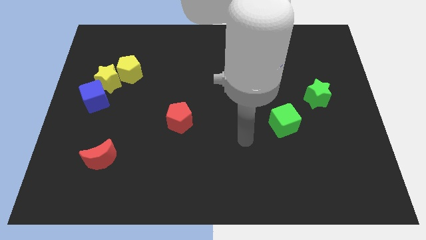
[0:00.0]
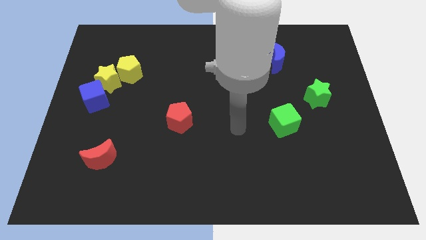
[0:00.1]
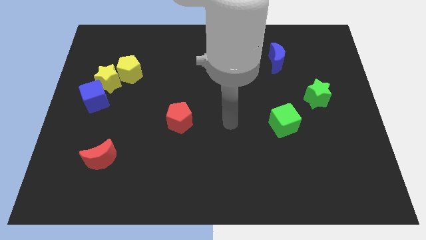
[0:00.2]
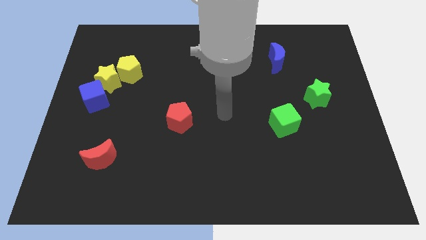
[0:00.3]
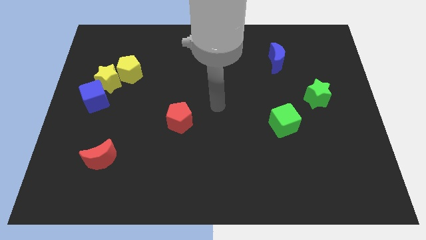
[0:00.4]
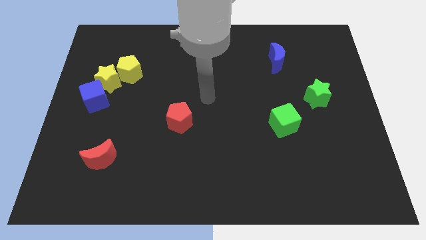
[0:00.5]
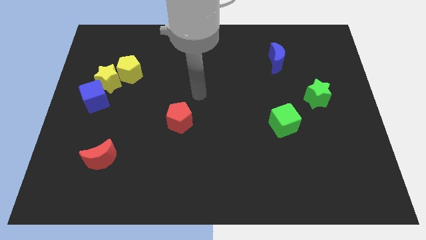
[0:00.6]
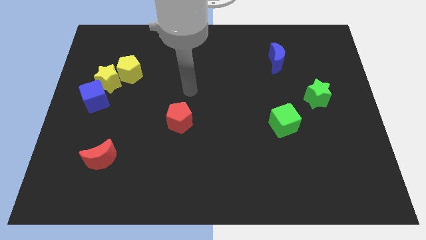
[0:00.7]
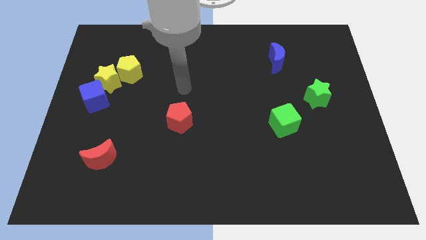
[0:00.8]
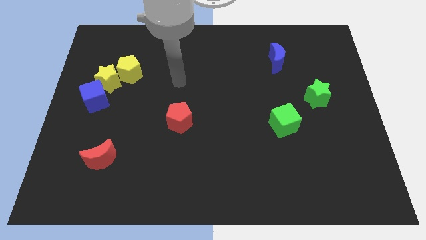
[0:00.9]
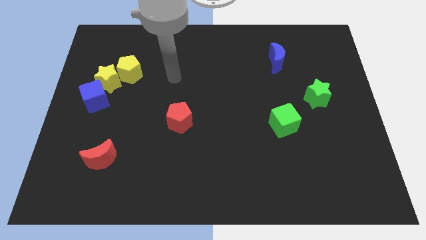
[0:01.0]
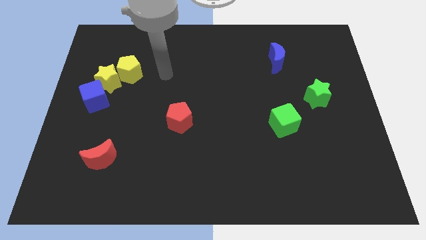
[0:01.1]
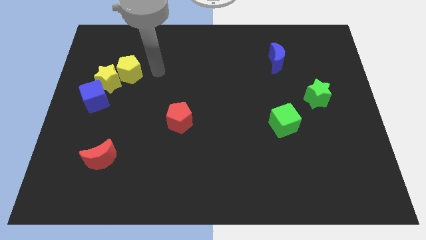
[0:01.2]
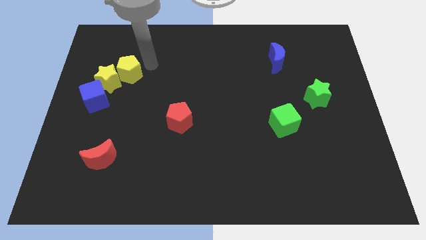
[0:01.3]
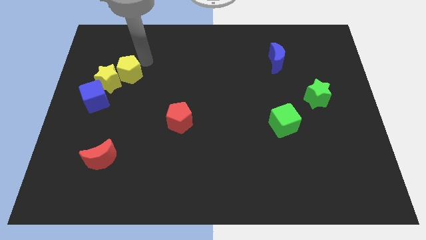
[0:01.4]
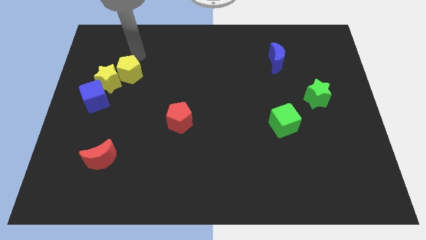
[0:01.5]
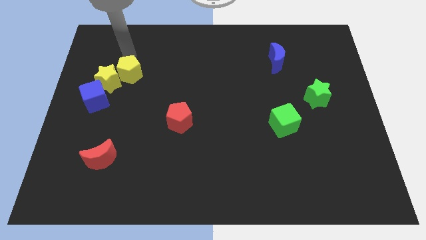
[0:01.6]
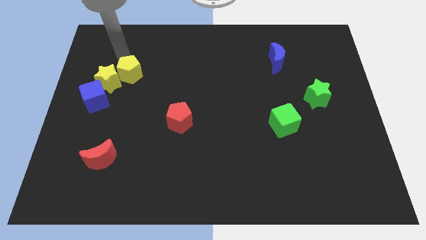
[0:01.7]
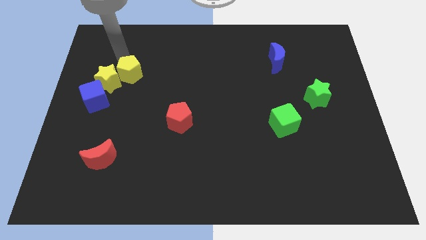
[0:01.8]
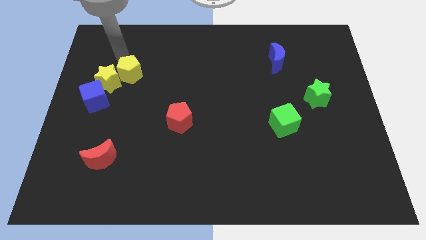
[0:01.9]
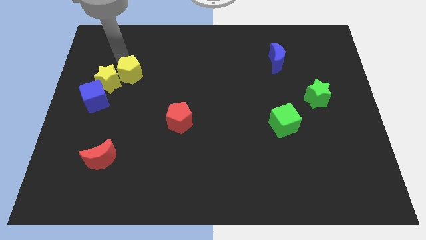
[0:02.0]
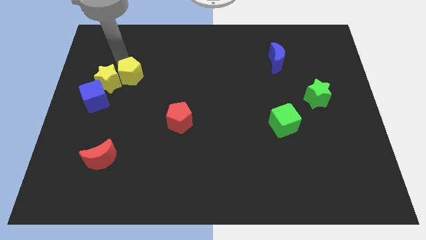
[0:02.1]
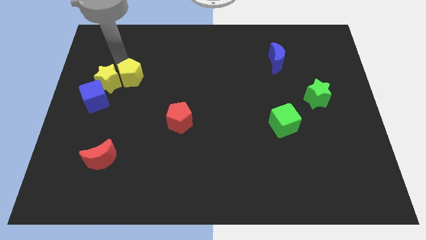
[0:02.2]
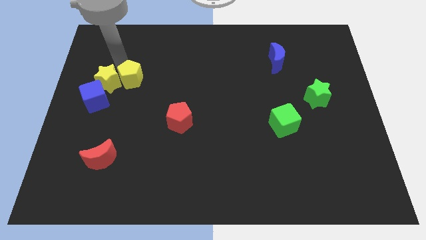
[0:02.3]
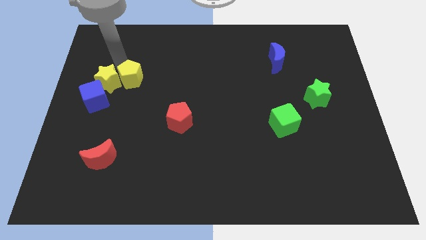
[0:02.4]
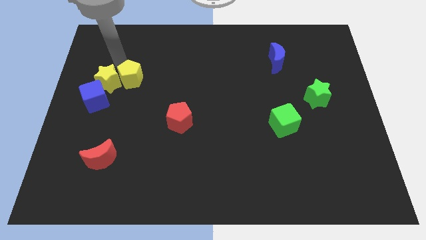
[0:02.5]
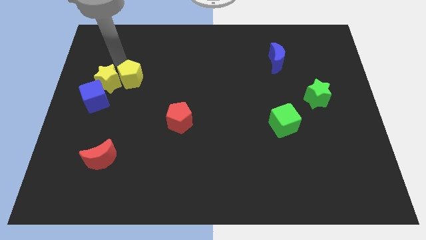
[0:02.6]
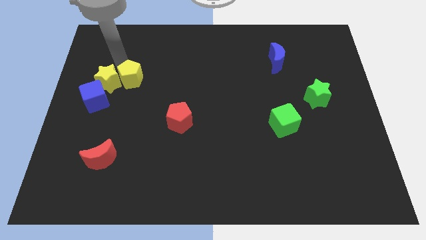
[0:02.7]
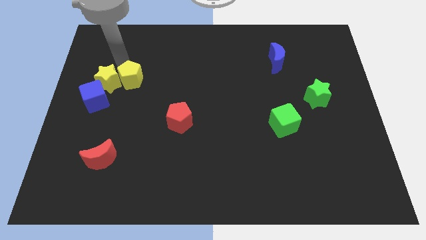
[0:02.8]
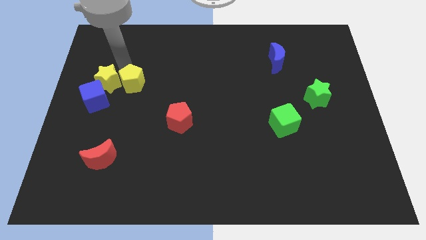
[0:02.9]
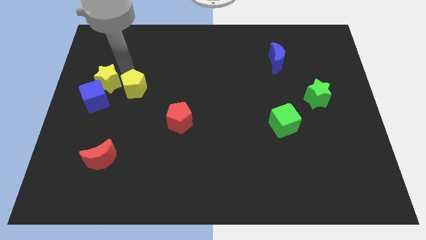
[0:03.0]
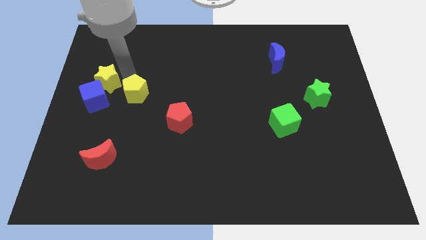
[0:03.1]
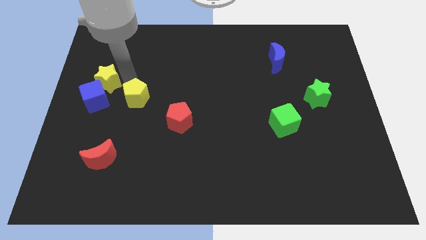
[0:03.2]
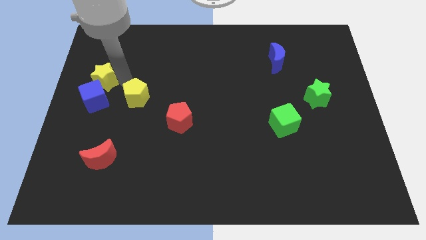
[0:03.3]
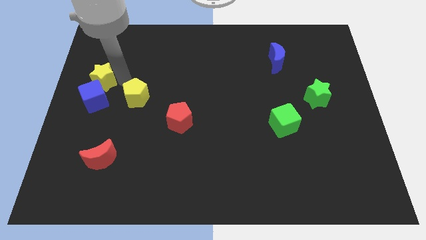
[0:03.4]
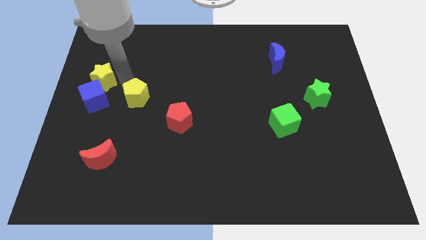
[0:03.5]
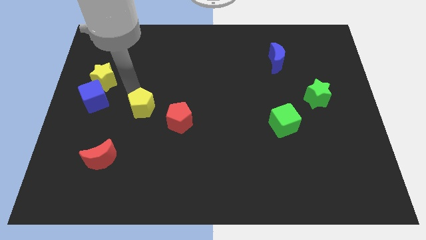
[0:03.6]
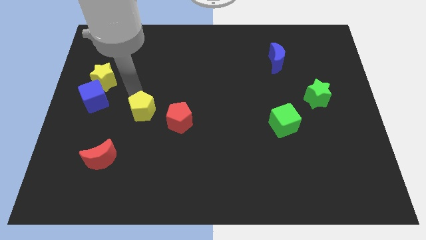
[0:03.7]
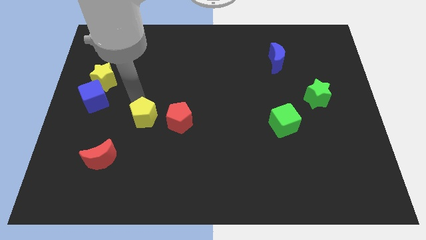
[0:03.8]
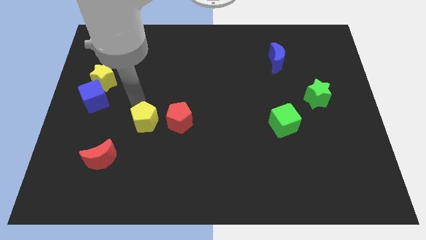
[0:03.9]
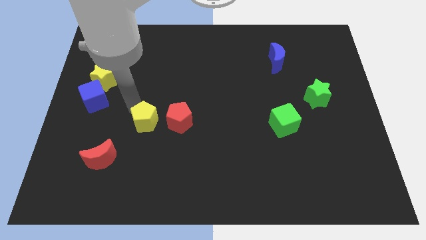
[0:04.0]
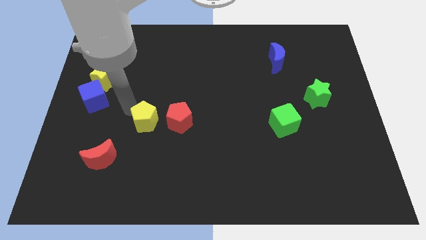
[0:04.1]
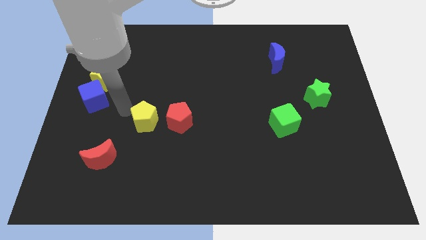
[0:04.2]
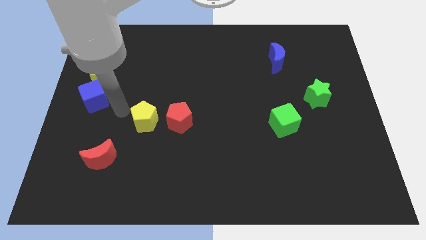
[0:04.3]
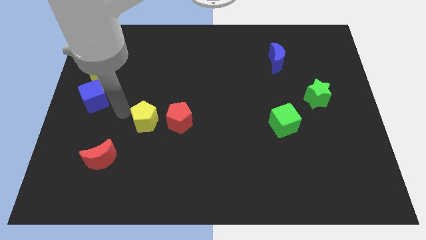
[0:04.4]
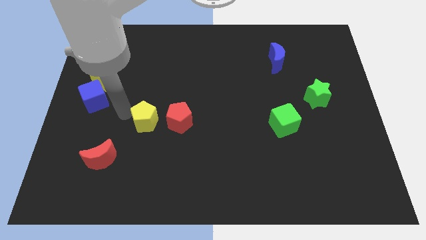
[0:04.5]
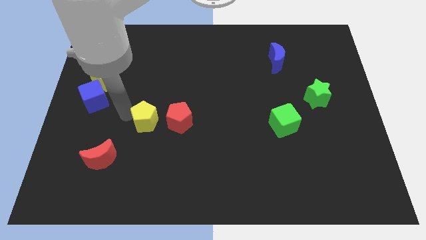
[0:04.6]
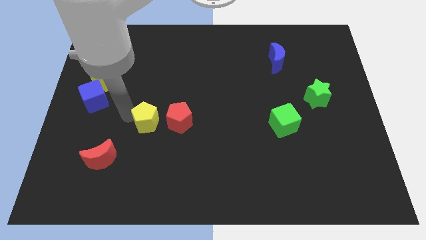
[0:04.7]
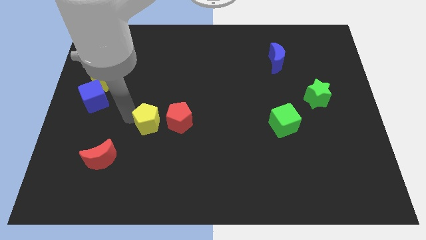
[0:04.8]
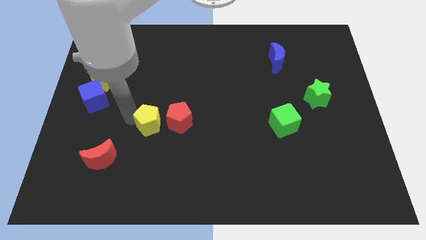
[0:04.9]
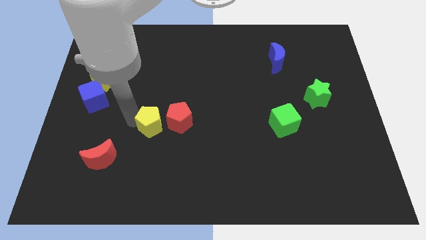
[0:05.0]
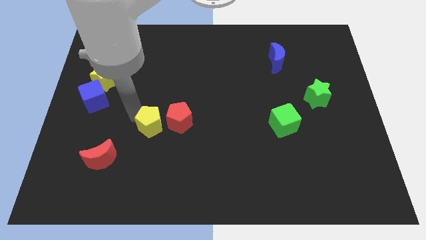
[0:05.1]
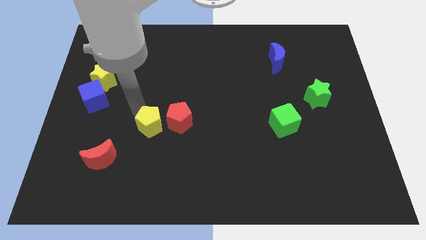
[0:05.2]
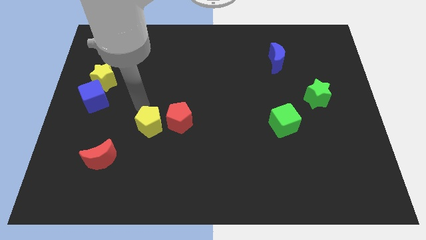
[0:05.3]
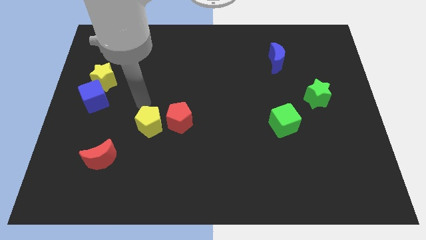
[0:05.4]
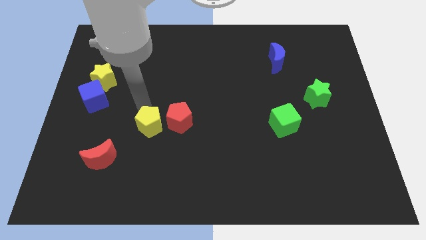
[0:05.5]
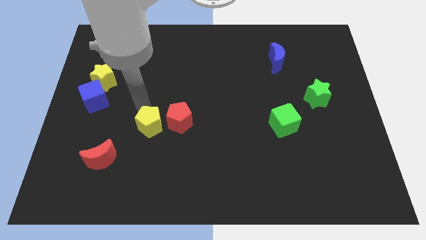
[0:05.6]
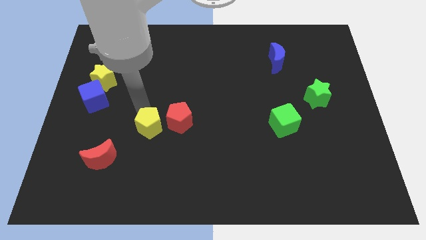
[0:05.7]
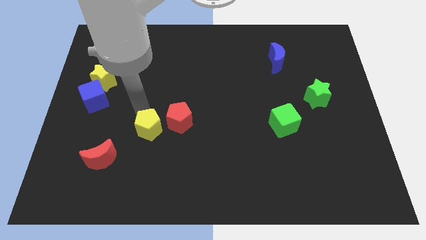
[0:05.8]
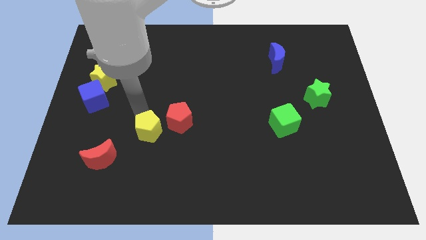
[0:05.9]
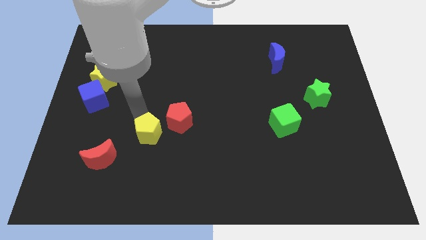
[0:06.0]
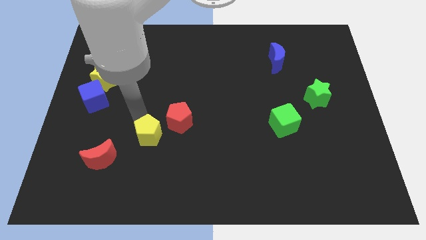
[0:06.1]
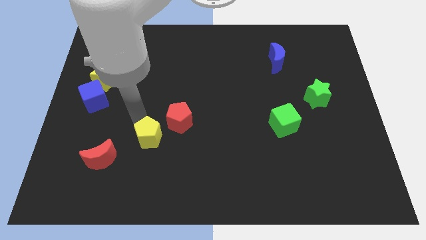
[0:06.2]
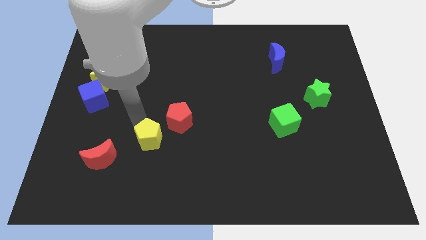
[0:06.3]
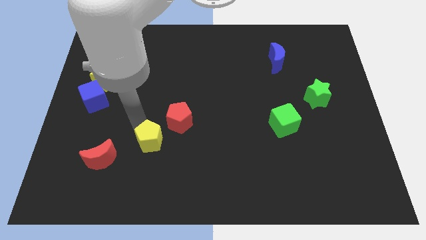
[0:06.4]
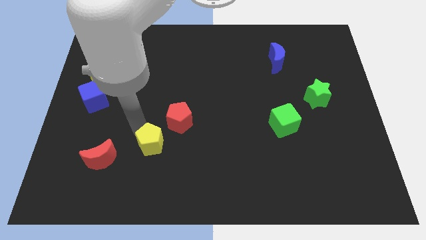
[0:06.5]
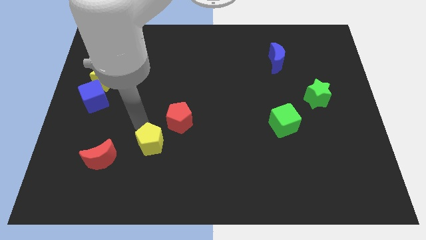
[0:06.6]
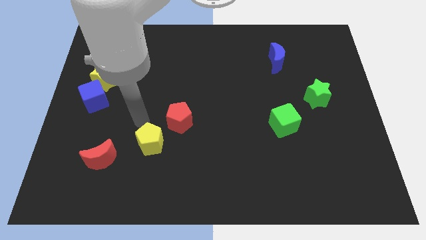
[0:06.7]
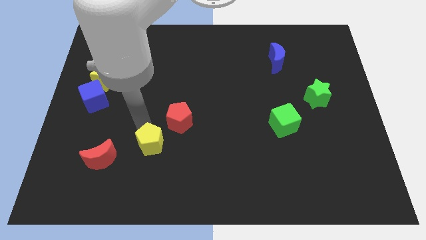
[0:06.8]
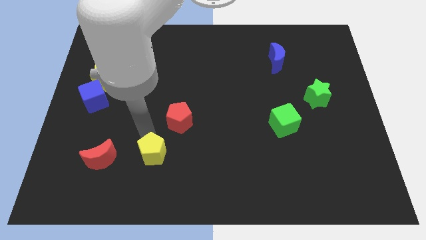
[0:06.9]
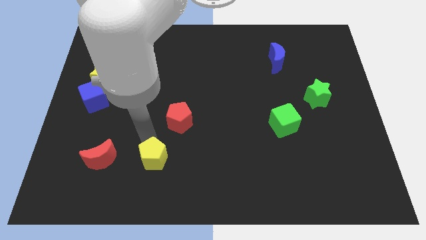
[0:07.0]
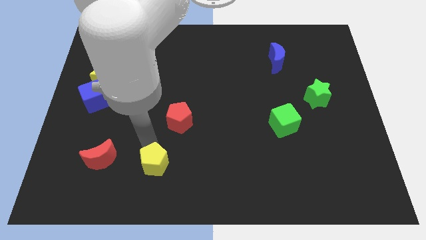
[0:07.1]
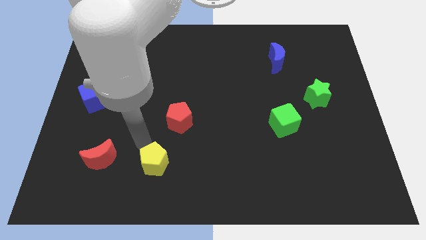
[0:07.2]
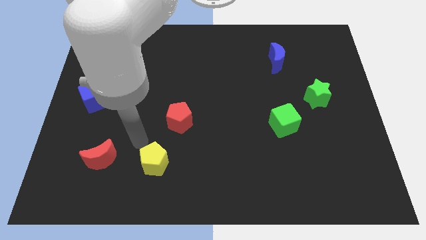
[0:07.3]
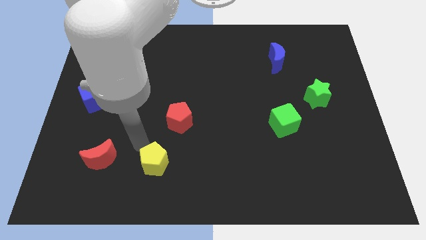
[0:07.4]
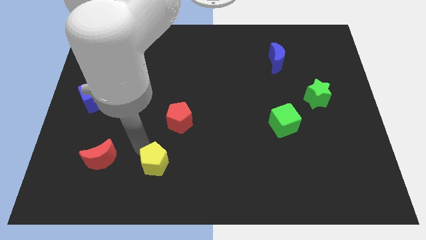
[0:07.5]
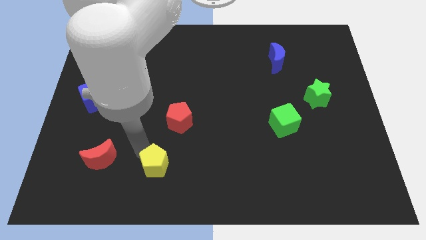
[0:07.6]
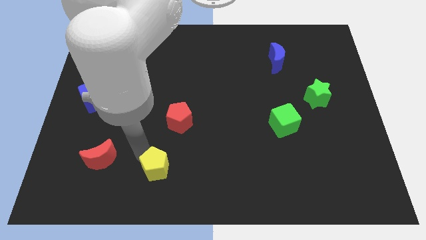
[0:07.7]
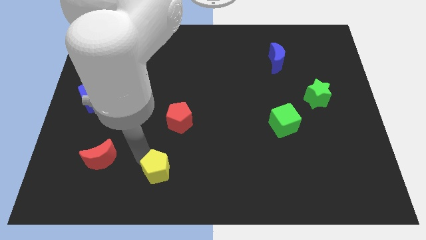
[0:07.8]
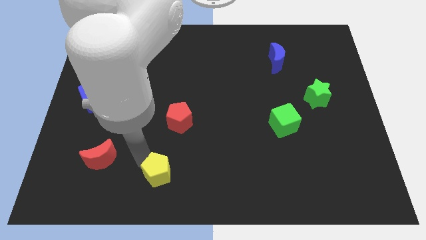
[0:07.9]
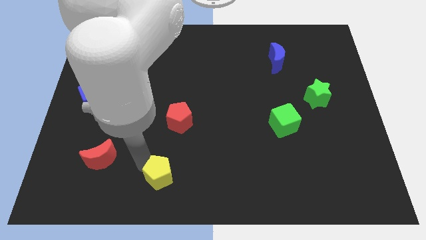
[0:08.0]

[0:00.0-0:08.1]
put the yellow pentagon to the bottom
